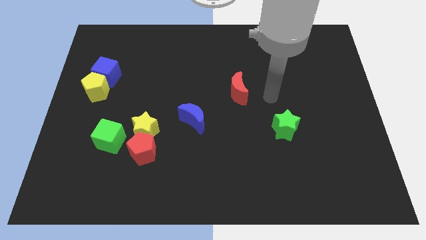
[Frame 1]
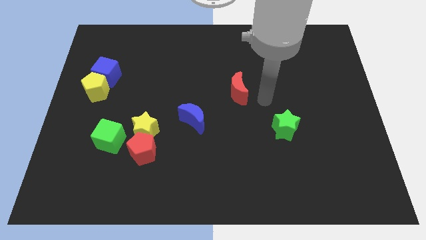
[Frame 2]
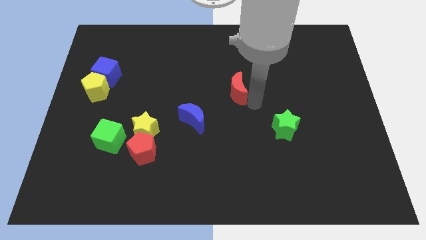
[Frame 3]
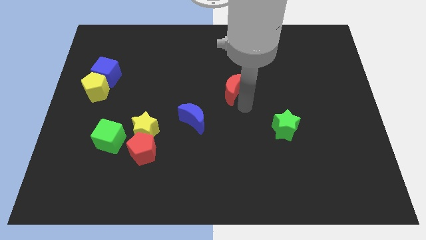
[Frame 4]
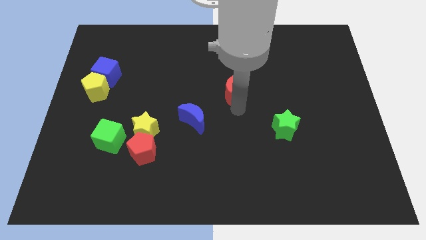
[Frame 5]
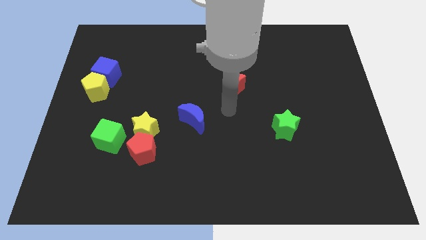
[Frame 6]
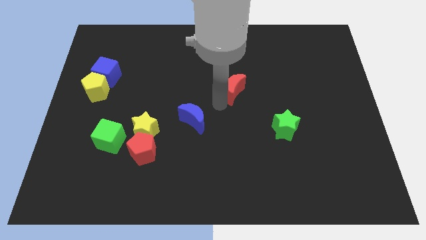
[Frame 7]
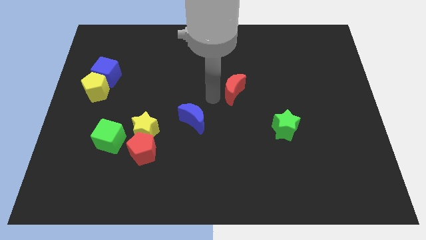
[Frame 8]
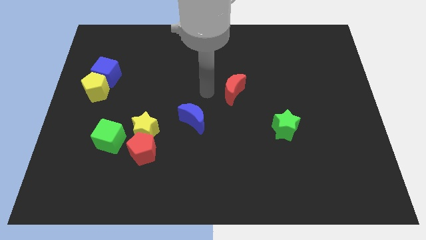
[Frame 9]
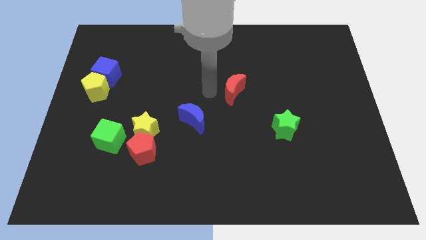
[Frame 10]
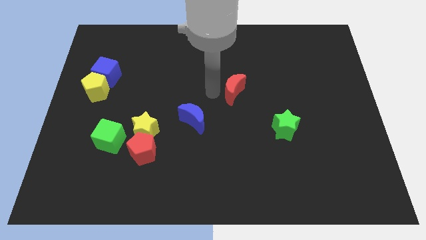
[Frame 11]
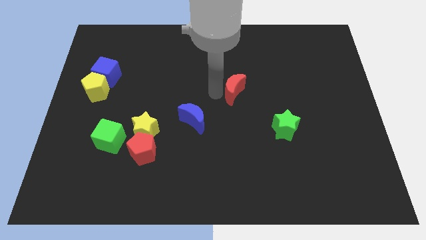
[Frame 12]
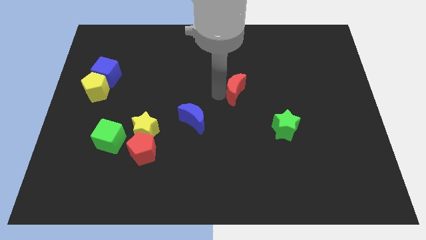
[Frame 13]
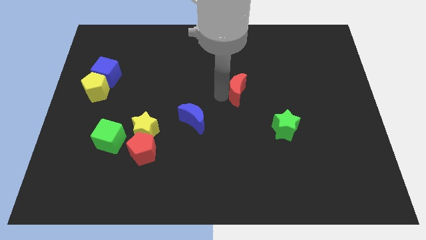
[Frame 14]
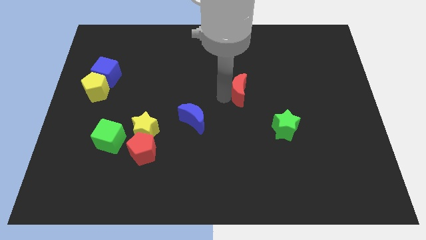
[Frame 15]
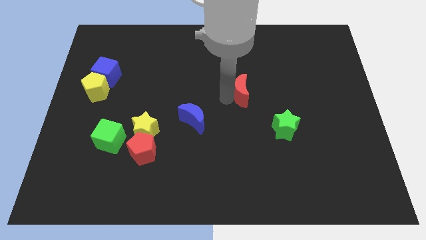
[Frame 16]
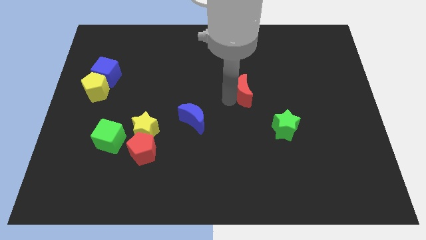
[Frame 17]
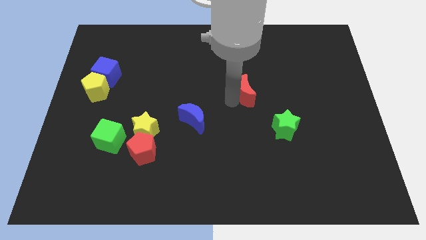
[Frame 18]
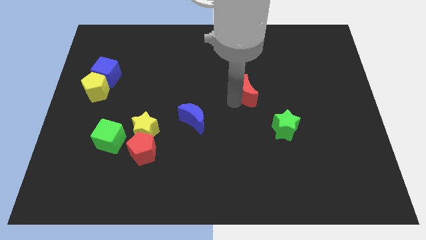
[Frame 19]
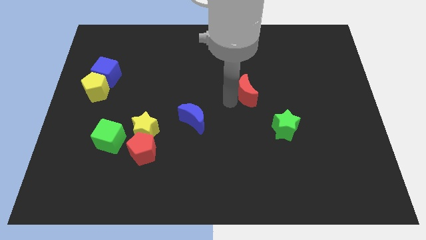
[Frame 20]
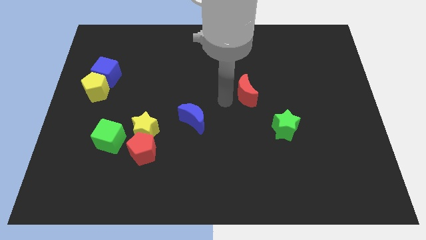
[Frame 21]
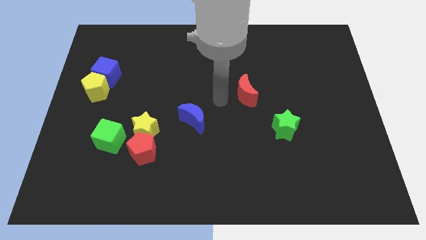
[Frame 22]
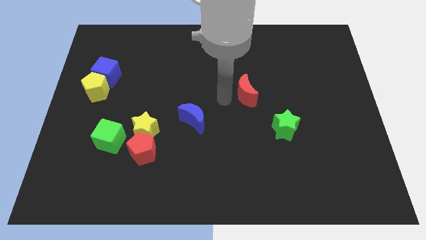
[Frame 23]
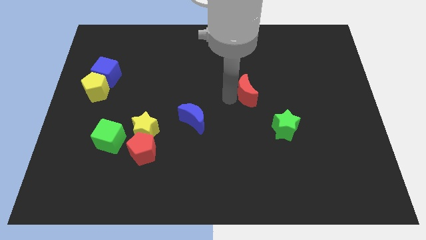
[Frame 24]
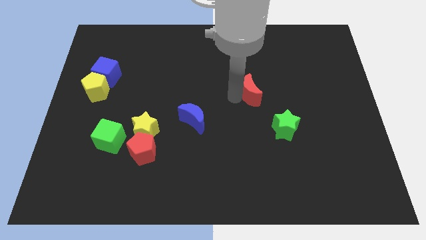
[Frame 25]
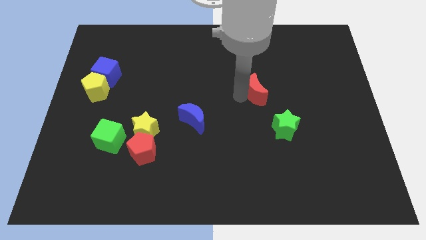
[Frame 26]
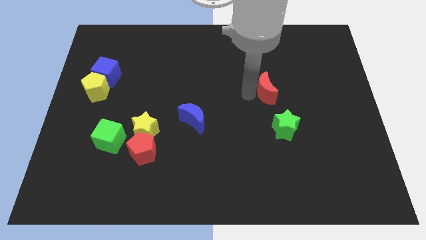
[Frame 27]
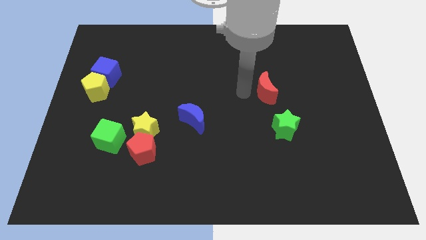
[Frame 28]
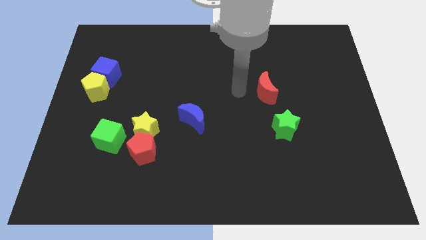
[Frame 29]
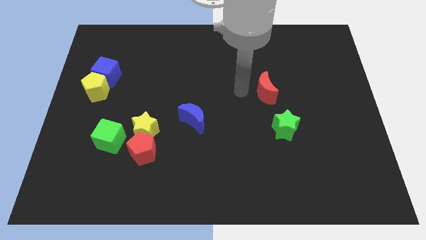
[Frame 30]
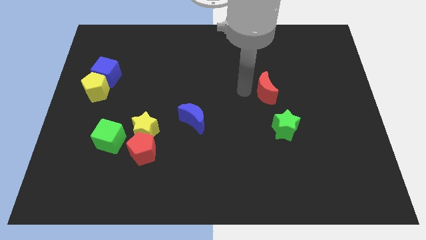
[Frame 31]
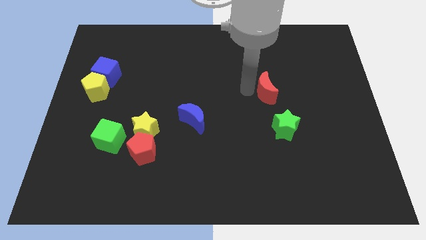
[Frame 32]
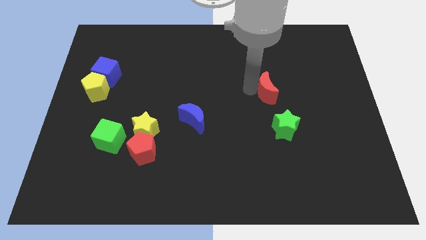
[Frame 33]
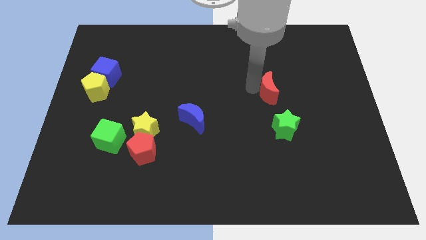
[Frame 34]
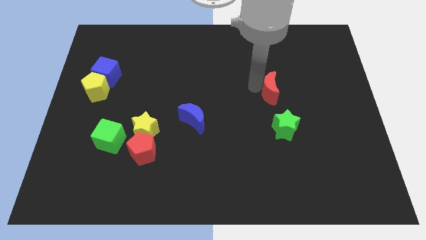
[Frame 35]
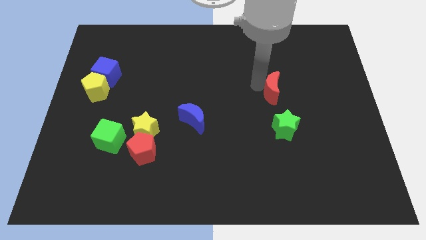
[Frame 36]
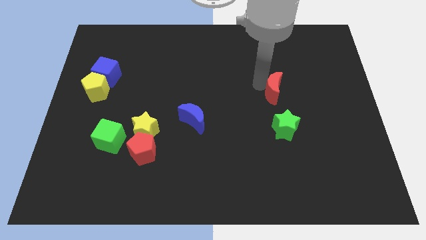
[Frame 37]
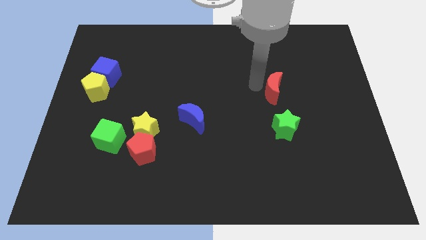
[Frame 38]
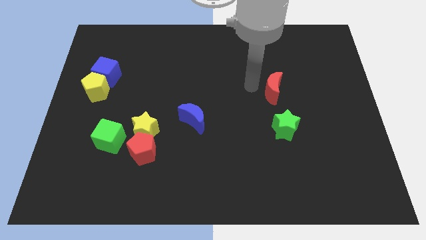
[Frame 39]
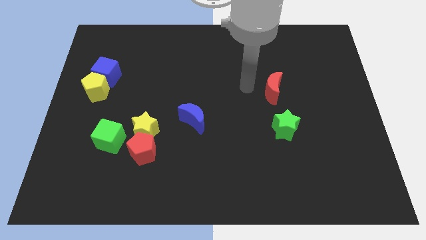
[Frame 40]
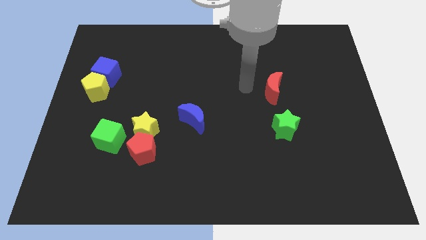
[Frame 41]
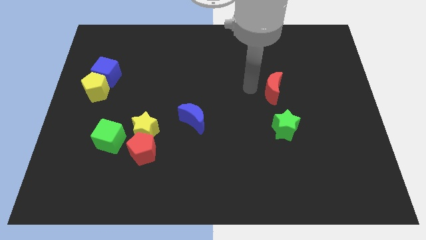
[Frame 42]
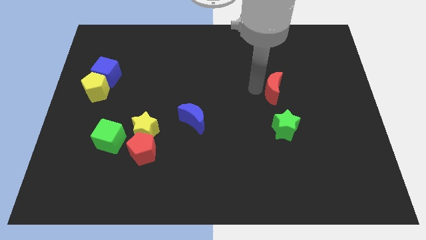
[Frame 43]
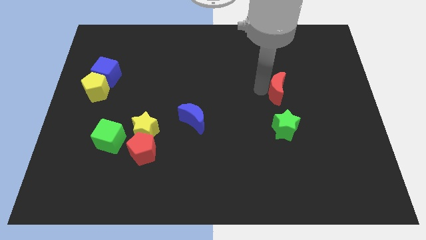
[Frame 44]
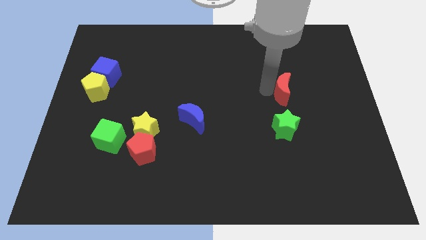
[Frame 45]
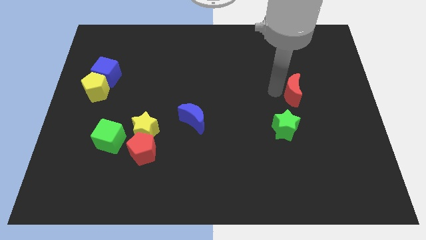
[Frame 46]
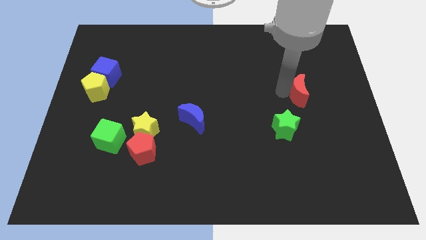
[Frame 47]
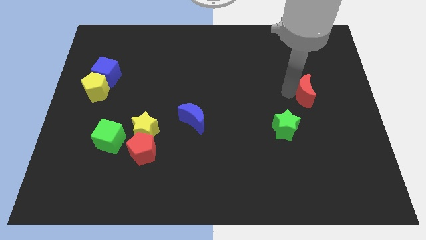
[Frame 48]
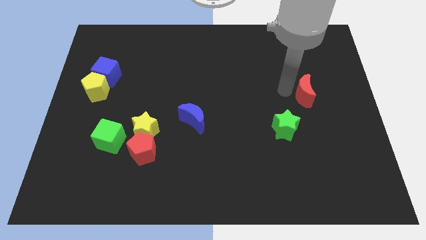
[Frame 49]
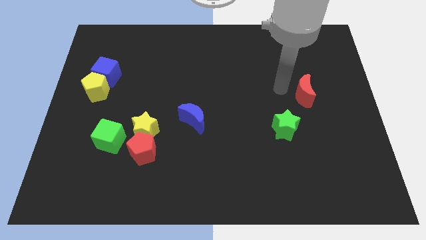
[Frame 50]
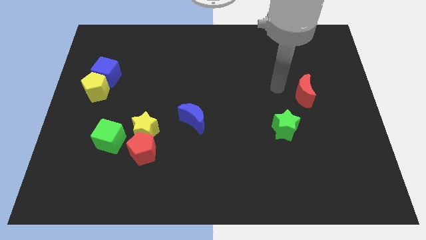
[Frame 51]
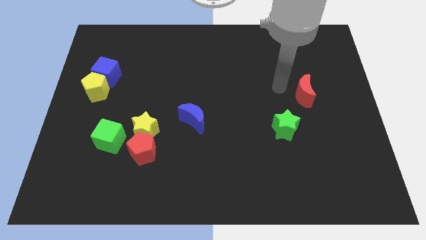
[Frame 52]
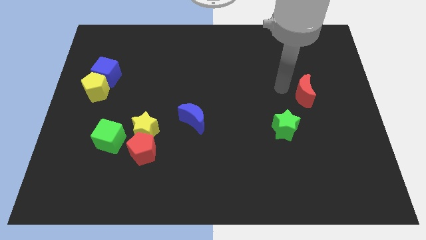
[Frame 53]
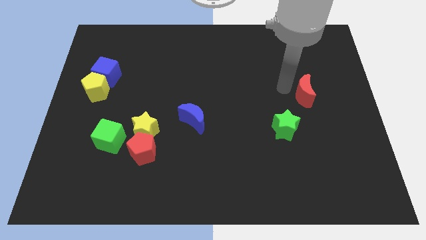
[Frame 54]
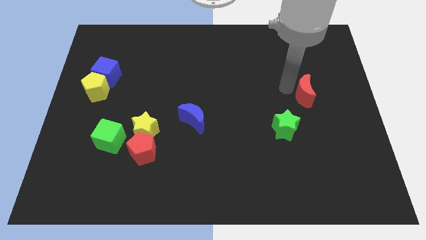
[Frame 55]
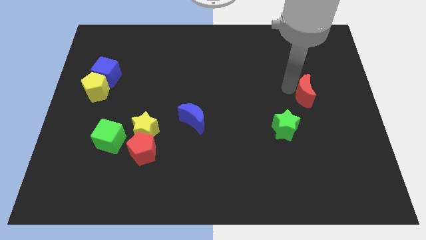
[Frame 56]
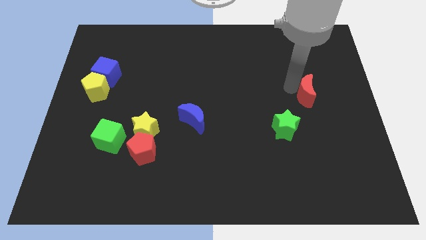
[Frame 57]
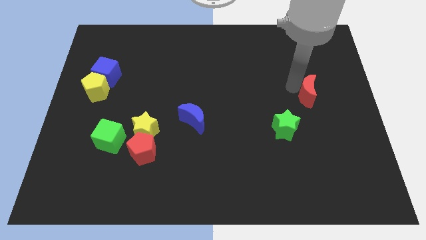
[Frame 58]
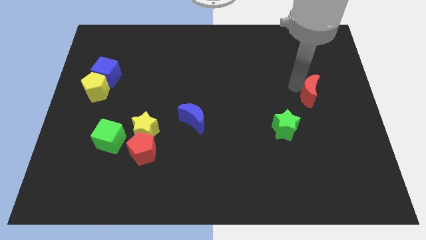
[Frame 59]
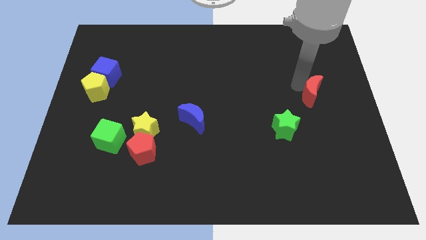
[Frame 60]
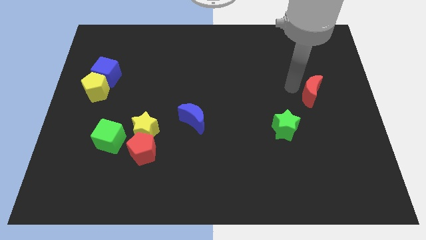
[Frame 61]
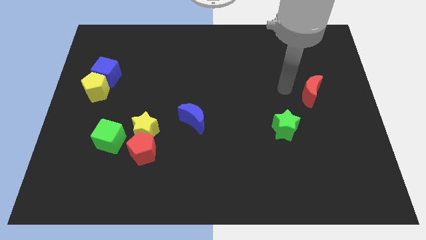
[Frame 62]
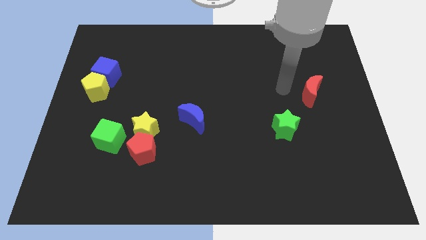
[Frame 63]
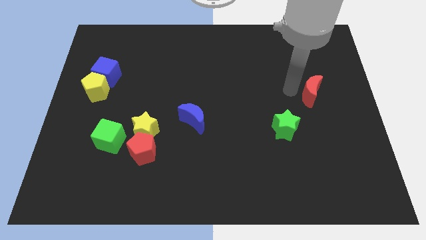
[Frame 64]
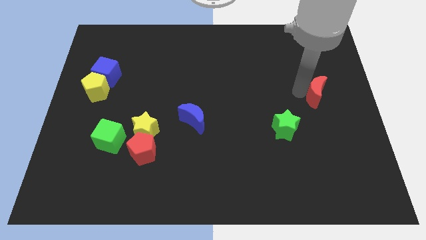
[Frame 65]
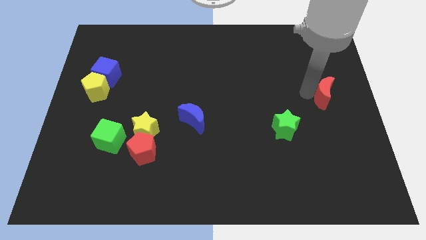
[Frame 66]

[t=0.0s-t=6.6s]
move the red moon to the center right
